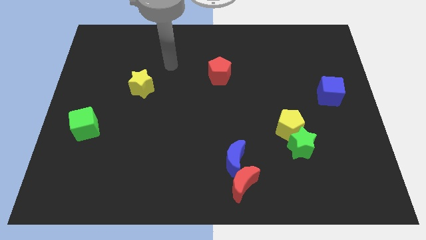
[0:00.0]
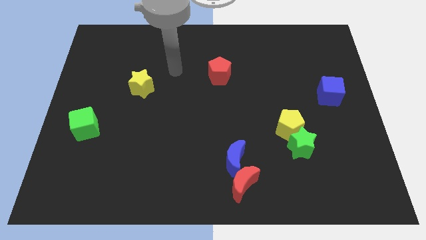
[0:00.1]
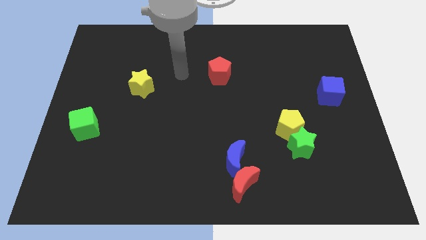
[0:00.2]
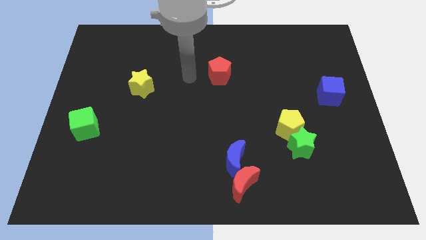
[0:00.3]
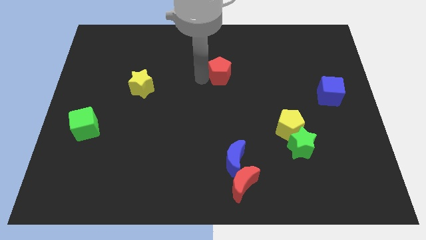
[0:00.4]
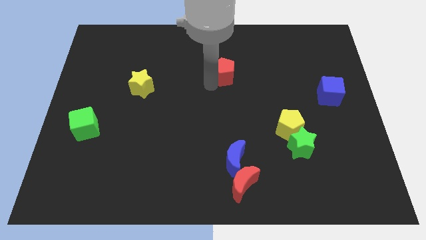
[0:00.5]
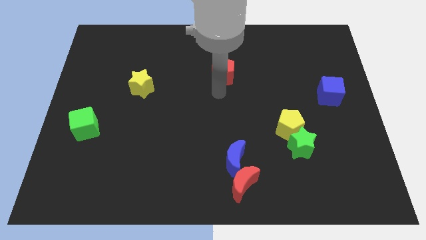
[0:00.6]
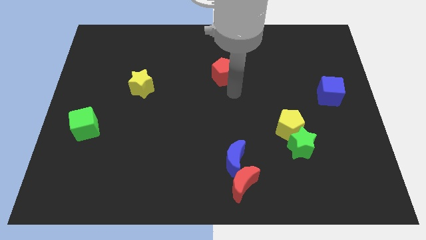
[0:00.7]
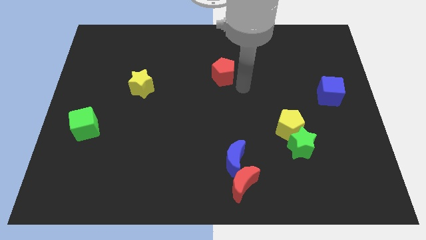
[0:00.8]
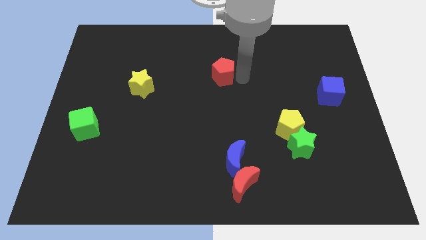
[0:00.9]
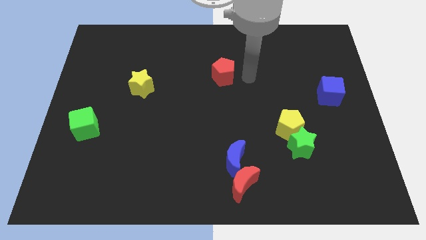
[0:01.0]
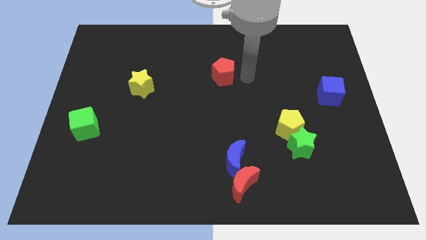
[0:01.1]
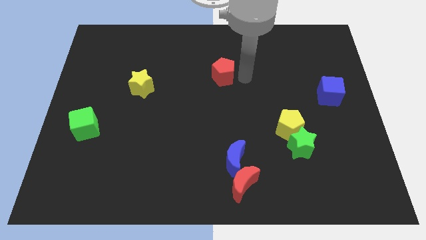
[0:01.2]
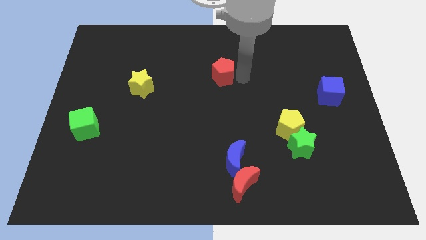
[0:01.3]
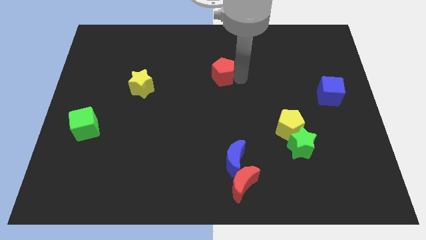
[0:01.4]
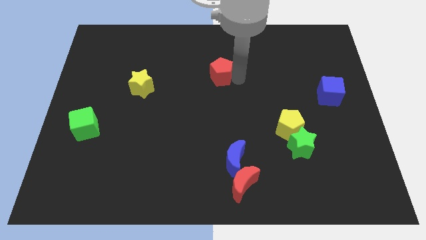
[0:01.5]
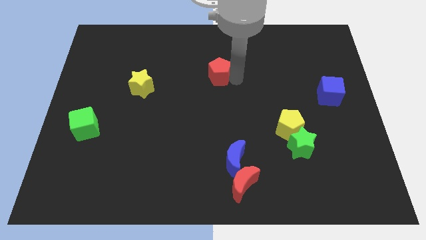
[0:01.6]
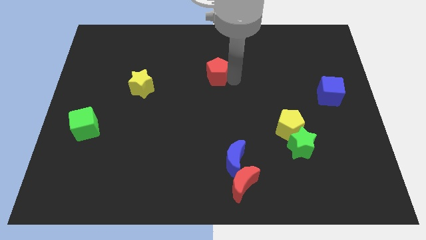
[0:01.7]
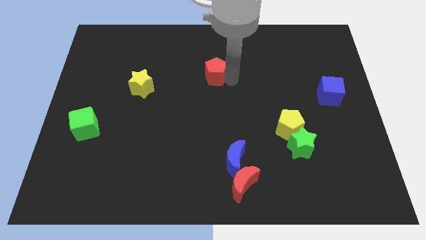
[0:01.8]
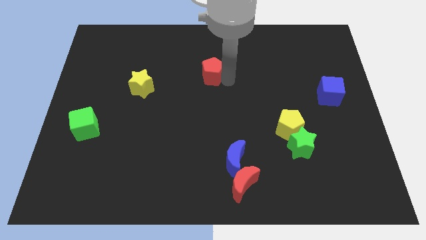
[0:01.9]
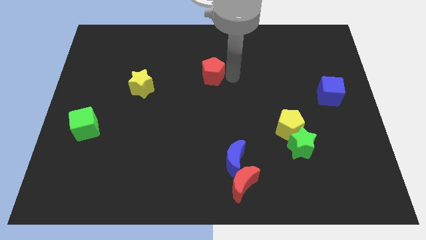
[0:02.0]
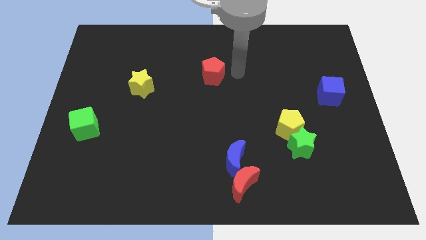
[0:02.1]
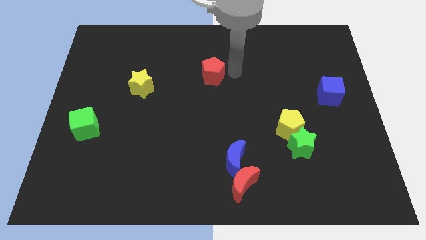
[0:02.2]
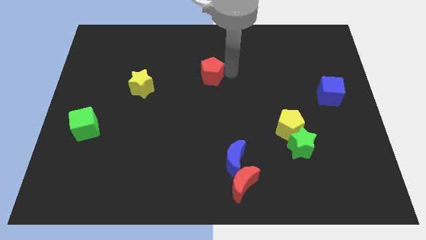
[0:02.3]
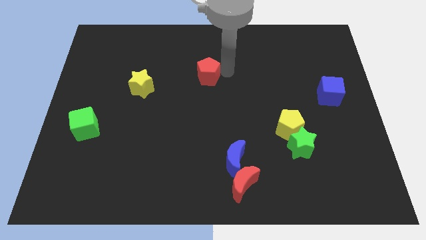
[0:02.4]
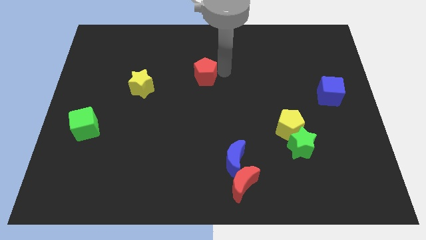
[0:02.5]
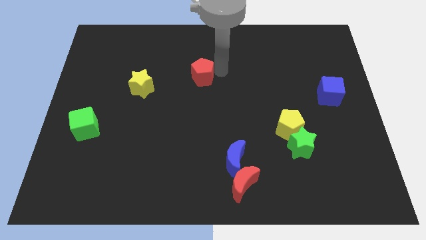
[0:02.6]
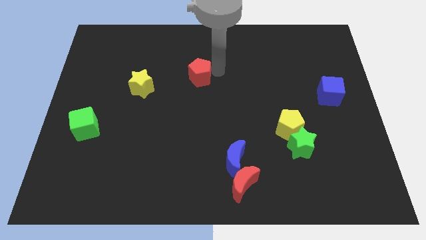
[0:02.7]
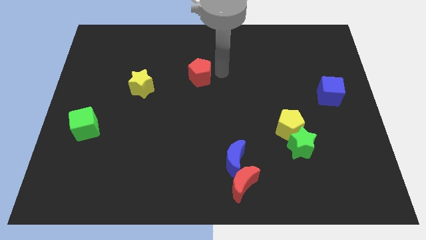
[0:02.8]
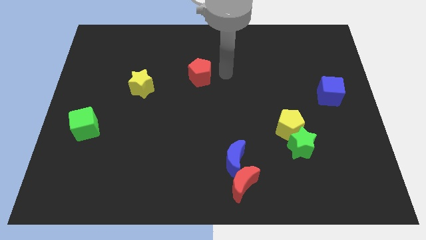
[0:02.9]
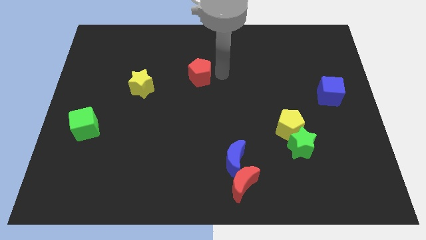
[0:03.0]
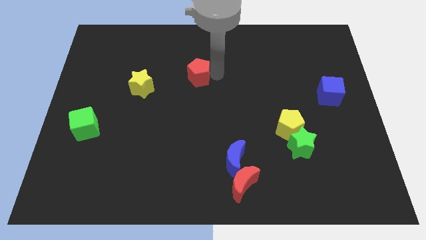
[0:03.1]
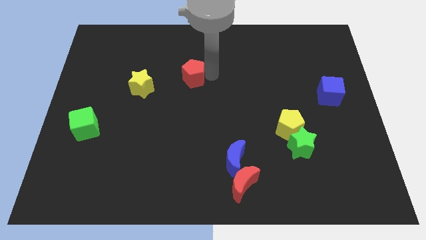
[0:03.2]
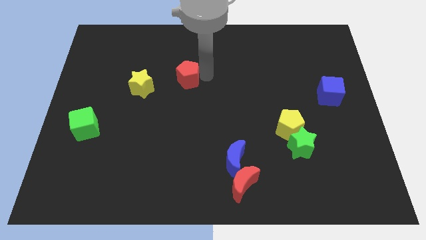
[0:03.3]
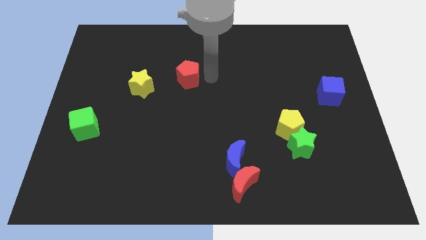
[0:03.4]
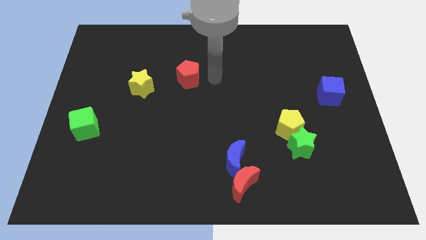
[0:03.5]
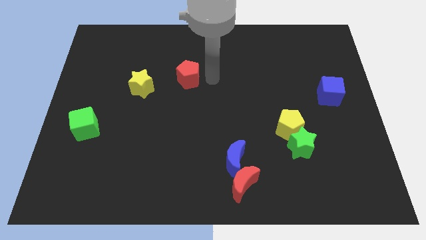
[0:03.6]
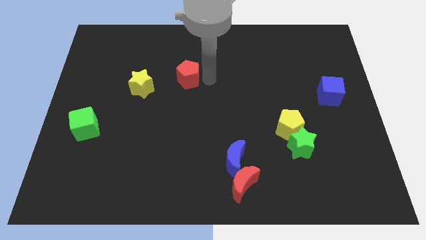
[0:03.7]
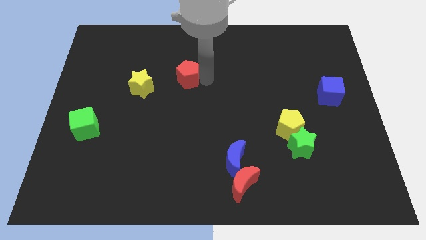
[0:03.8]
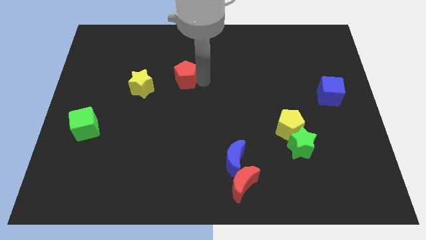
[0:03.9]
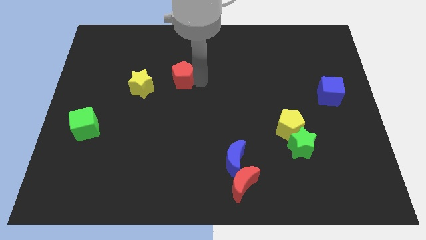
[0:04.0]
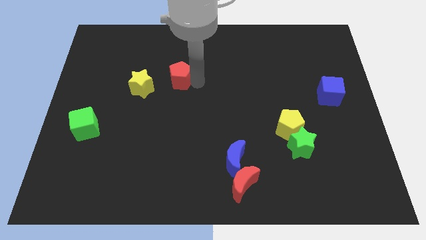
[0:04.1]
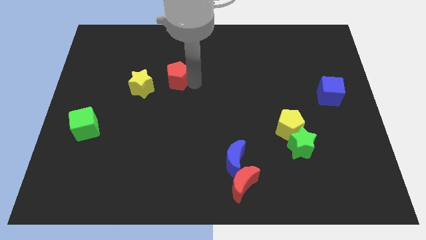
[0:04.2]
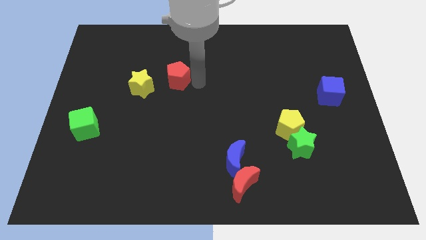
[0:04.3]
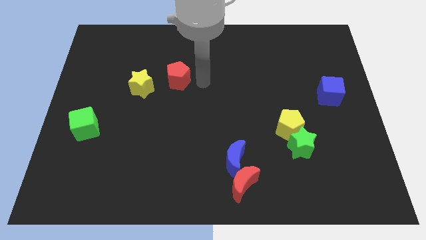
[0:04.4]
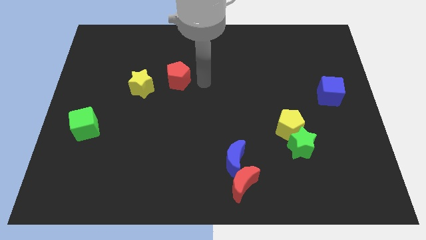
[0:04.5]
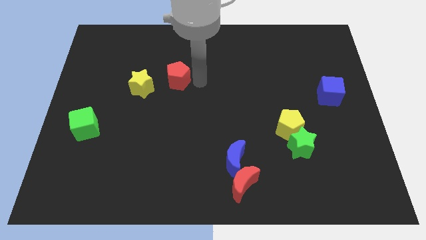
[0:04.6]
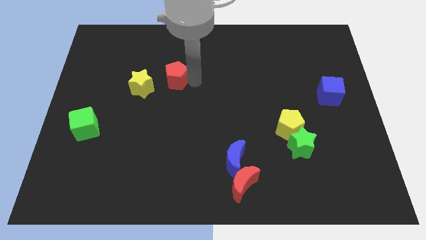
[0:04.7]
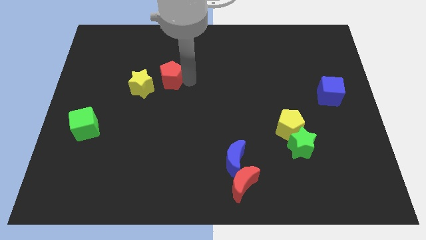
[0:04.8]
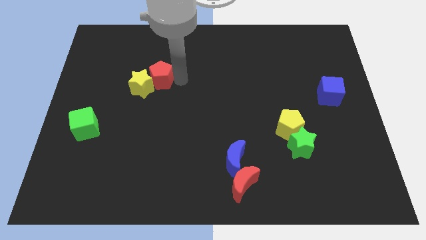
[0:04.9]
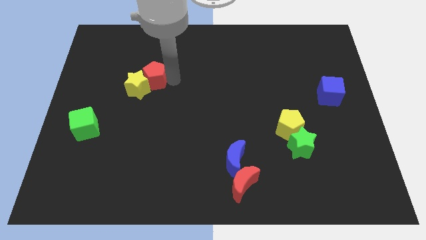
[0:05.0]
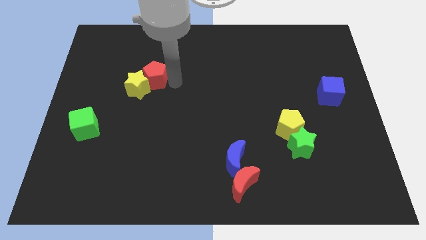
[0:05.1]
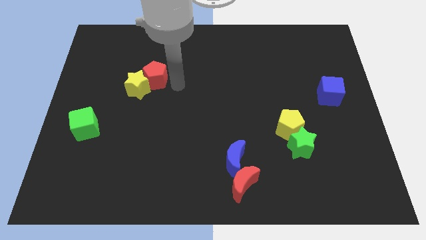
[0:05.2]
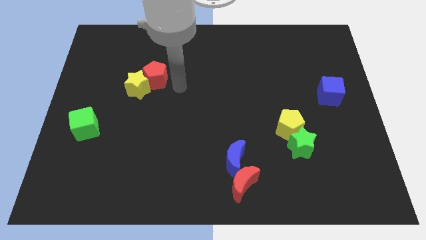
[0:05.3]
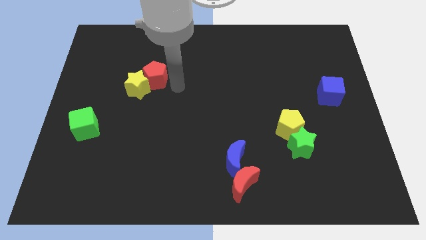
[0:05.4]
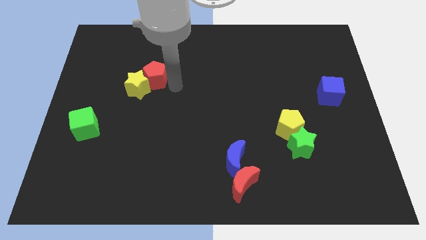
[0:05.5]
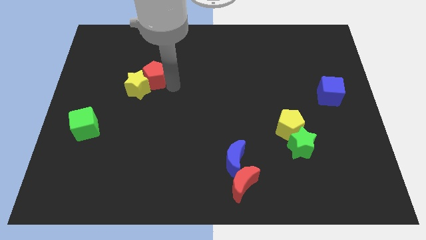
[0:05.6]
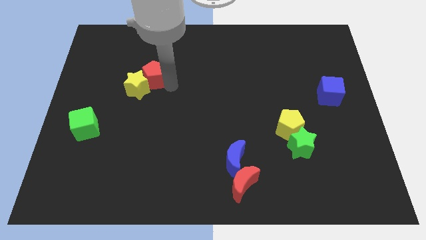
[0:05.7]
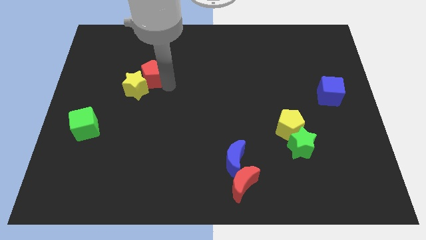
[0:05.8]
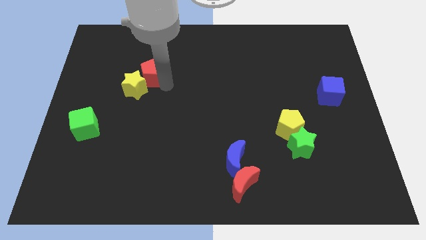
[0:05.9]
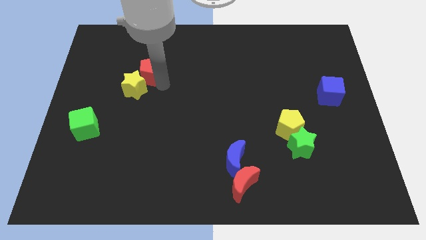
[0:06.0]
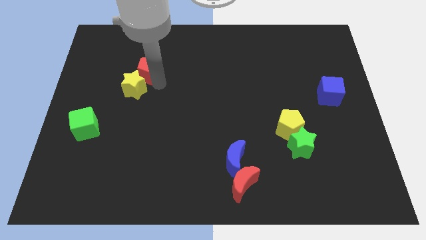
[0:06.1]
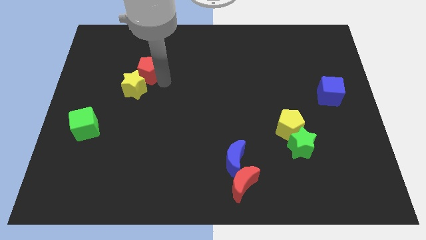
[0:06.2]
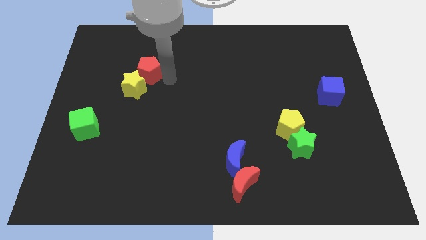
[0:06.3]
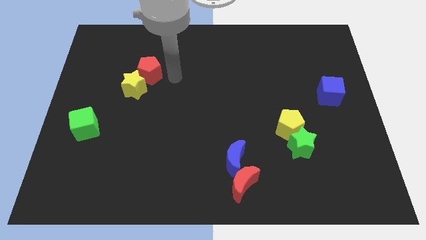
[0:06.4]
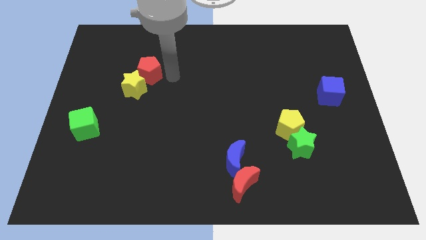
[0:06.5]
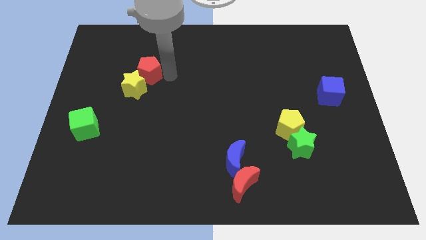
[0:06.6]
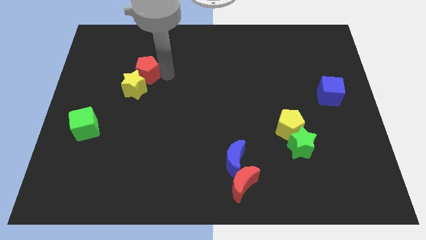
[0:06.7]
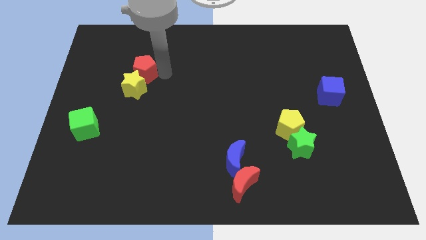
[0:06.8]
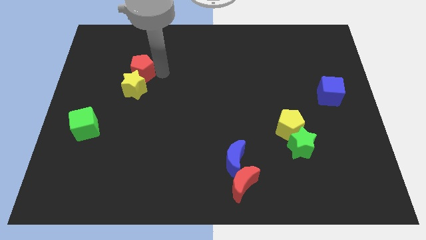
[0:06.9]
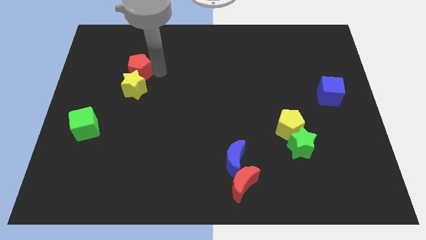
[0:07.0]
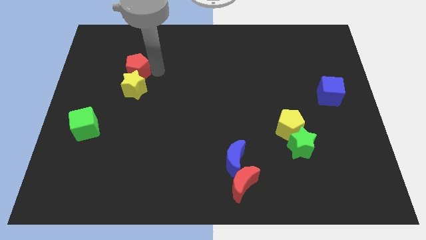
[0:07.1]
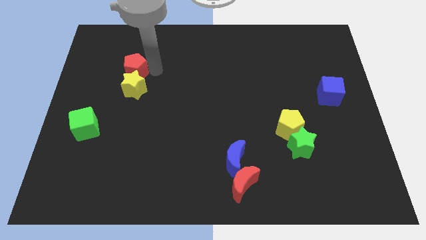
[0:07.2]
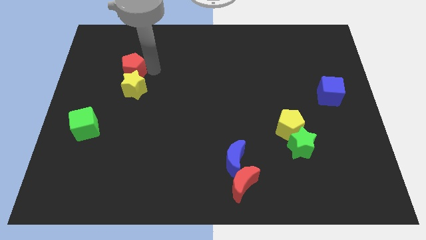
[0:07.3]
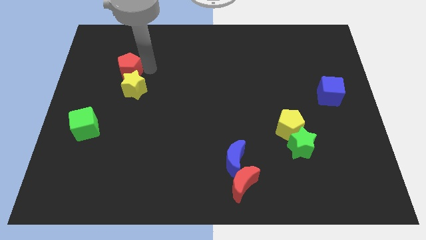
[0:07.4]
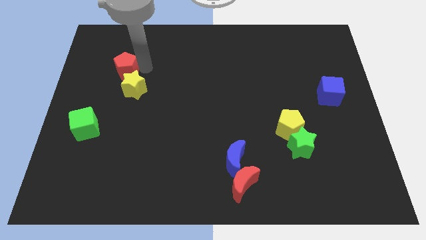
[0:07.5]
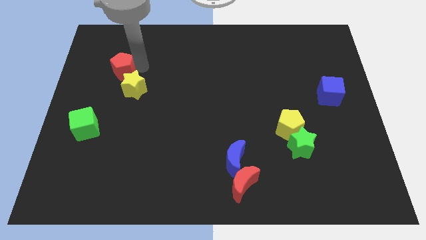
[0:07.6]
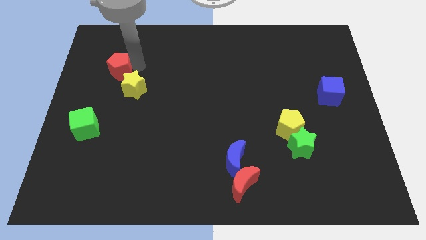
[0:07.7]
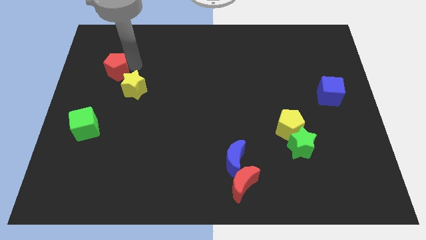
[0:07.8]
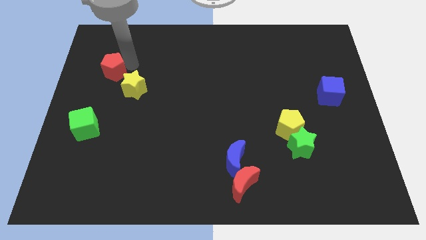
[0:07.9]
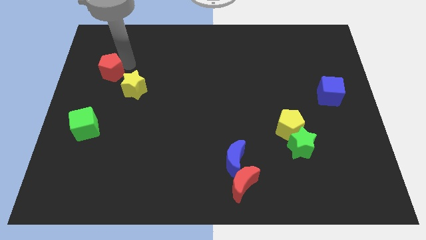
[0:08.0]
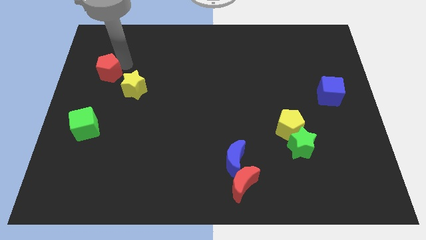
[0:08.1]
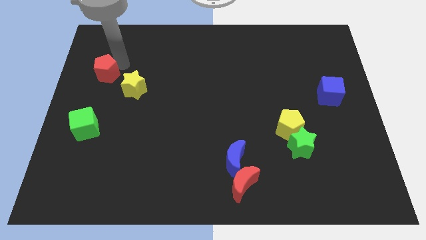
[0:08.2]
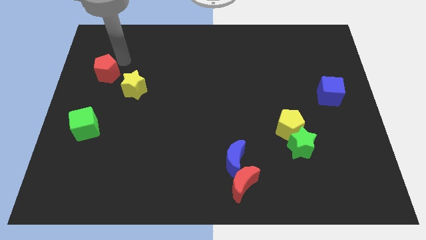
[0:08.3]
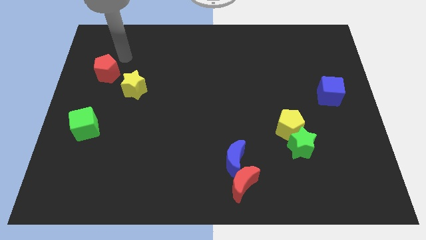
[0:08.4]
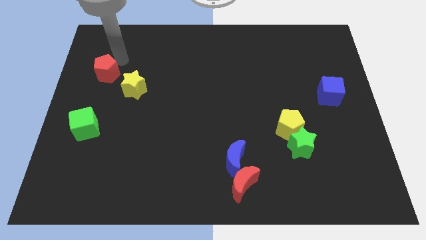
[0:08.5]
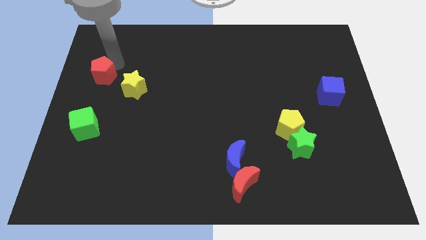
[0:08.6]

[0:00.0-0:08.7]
push the red pentagon just left of the yellow star
